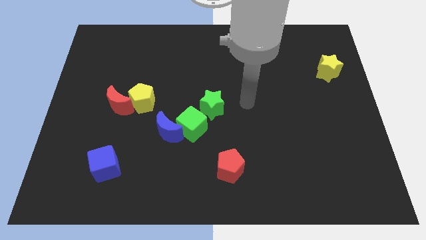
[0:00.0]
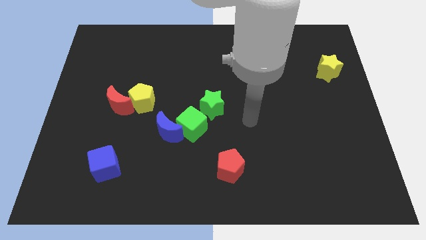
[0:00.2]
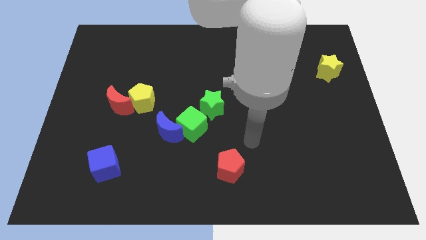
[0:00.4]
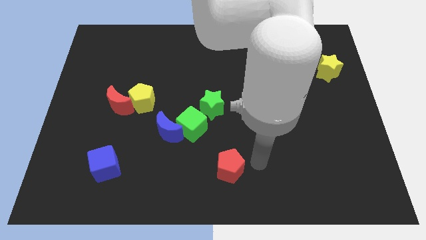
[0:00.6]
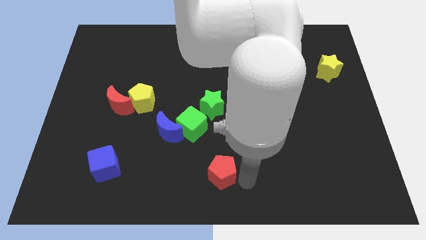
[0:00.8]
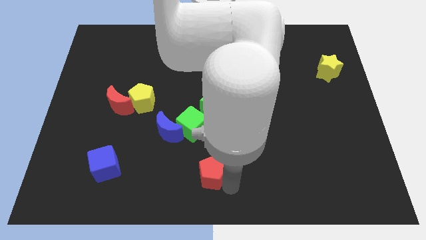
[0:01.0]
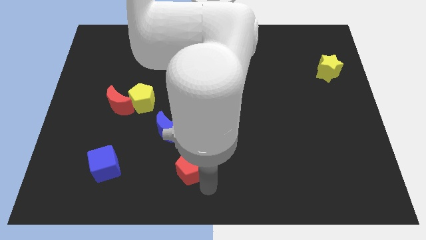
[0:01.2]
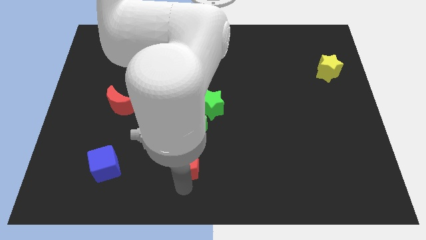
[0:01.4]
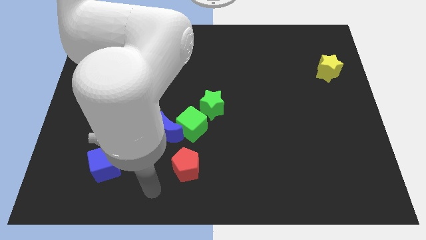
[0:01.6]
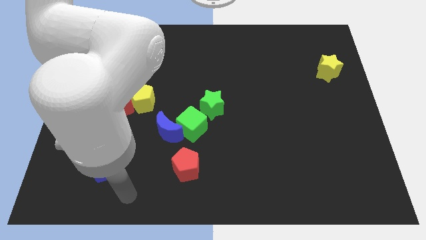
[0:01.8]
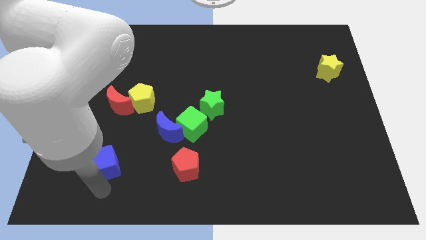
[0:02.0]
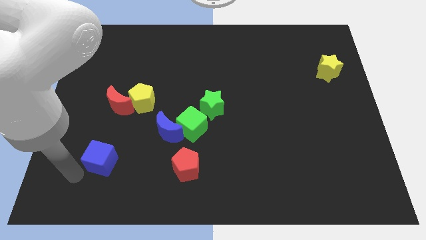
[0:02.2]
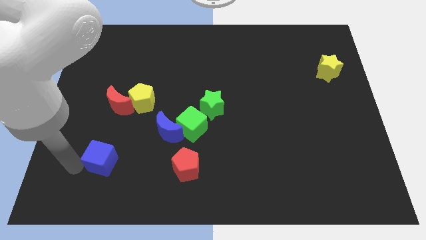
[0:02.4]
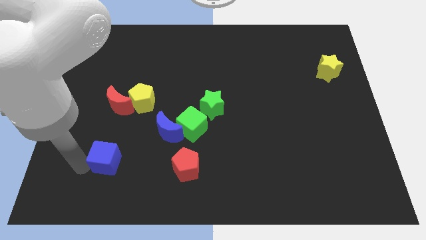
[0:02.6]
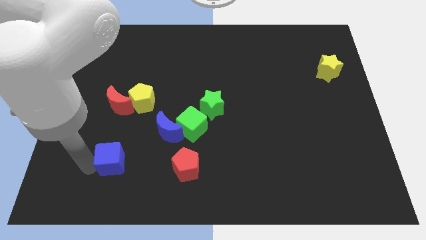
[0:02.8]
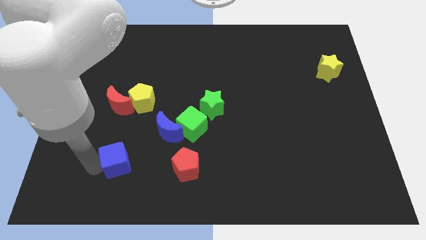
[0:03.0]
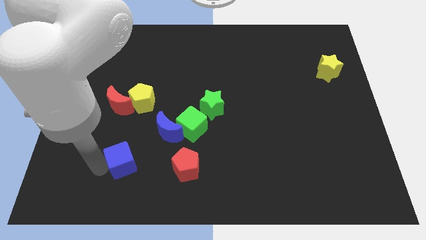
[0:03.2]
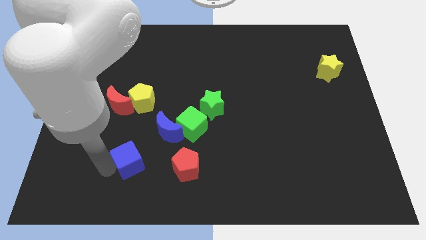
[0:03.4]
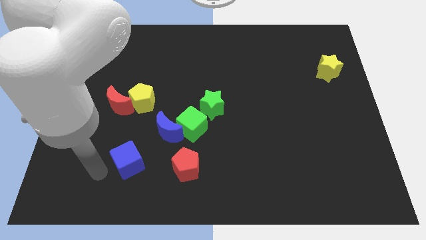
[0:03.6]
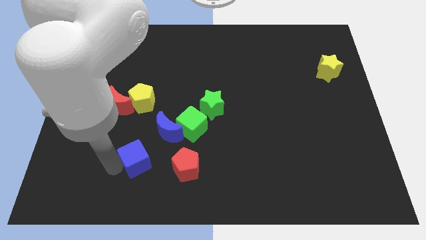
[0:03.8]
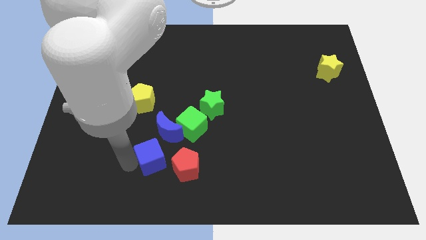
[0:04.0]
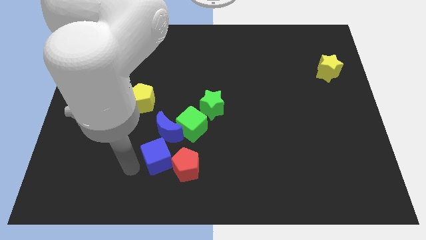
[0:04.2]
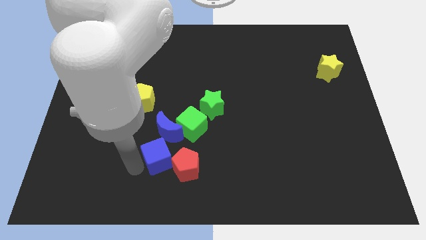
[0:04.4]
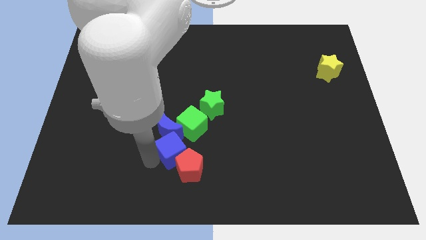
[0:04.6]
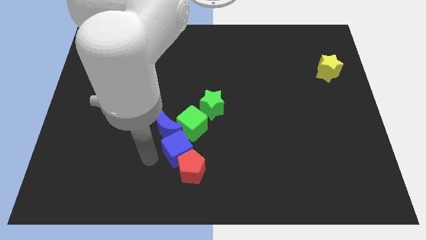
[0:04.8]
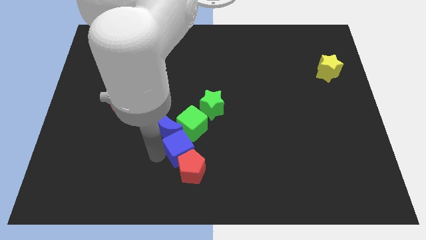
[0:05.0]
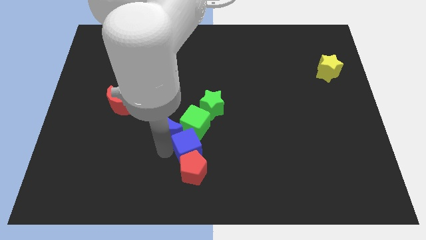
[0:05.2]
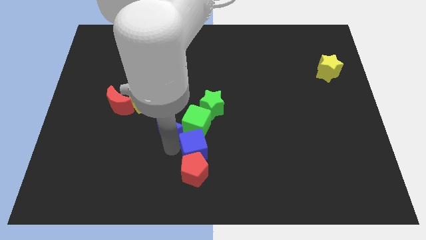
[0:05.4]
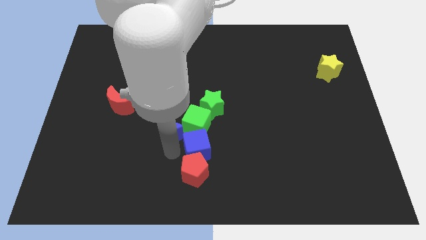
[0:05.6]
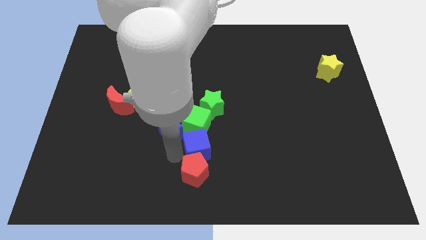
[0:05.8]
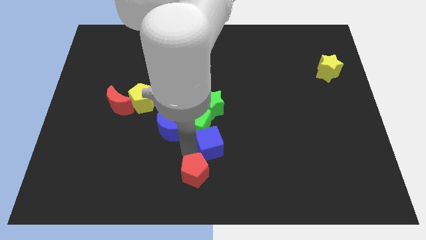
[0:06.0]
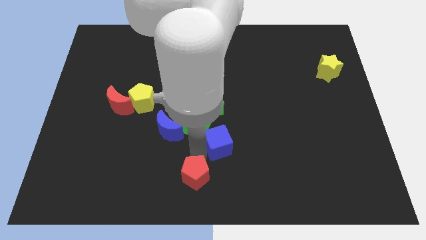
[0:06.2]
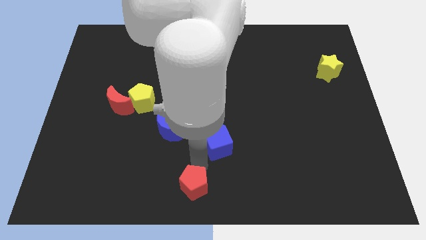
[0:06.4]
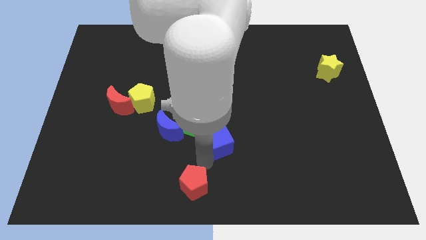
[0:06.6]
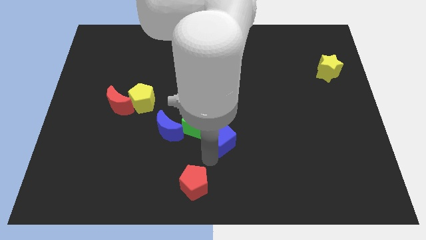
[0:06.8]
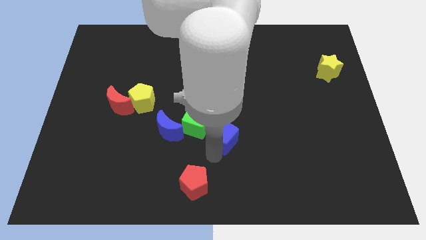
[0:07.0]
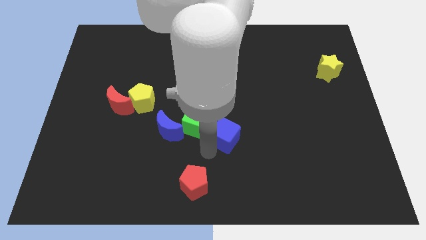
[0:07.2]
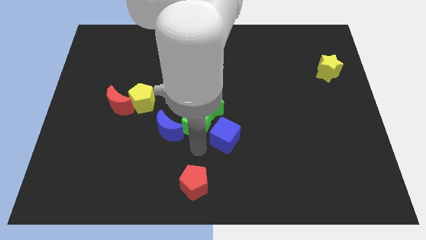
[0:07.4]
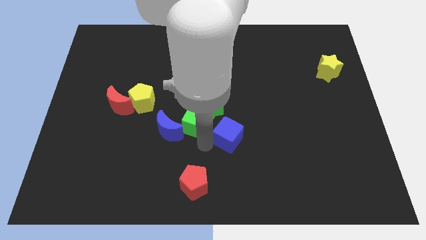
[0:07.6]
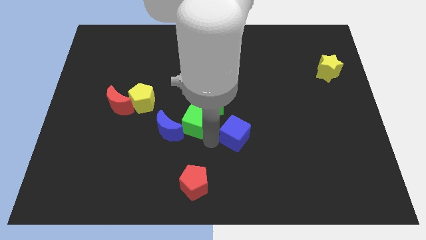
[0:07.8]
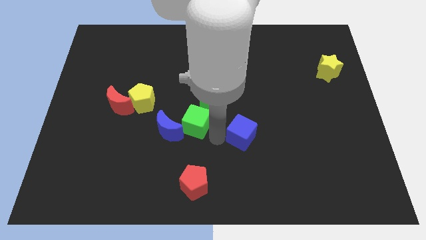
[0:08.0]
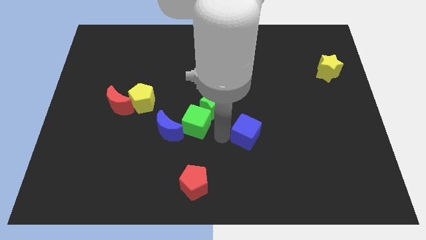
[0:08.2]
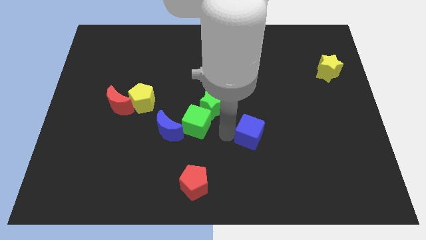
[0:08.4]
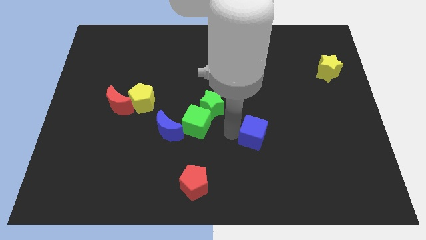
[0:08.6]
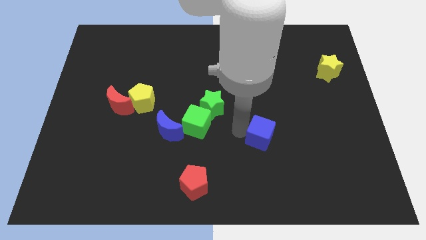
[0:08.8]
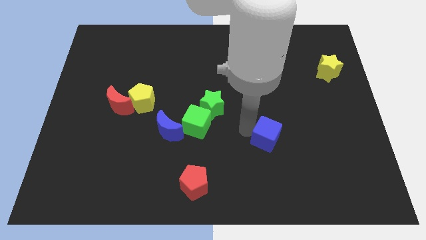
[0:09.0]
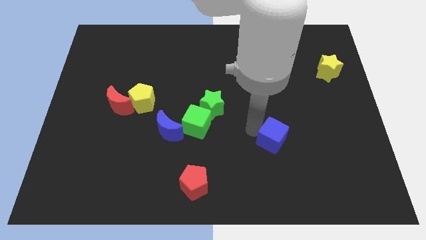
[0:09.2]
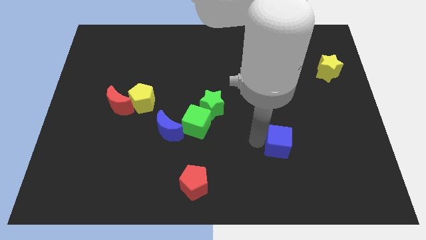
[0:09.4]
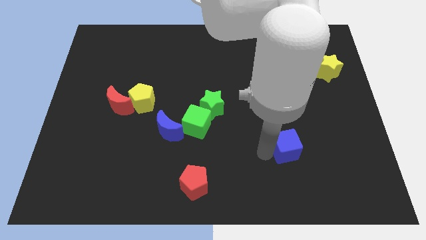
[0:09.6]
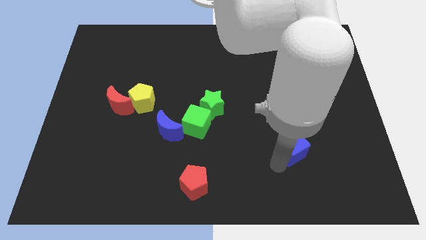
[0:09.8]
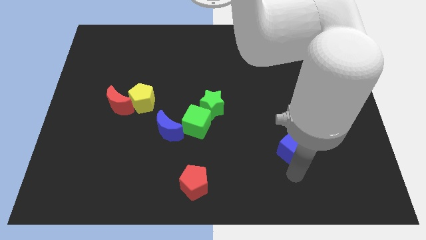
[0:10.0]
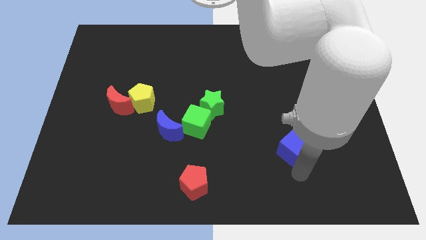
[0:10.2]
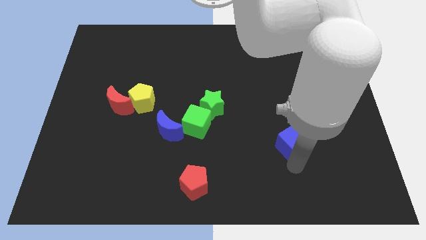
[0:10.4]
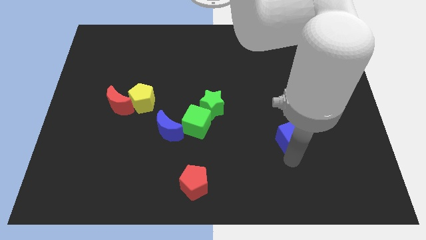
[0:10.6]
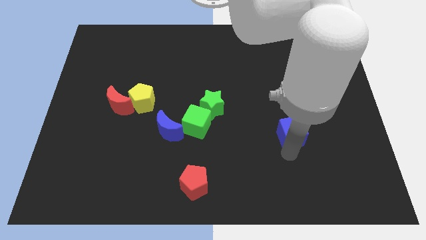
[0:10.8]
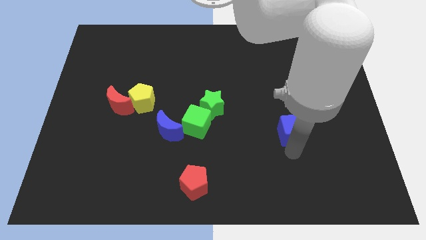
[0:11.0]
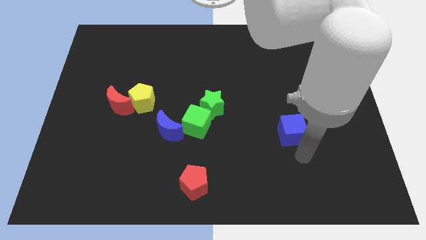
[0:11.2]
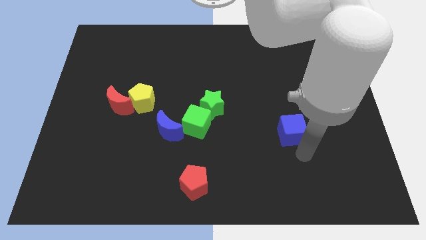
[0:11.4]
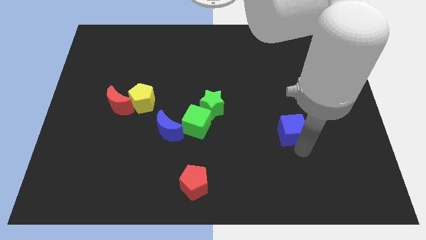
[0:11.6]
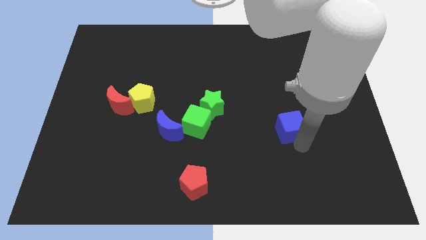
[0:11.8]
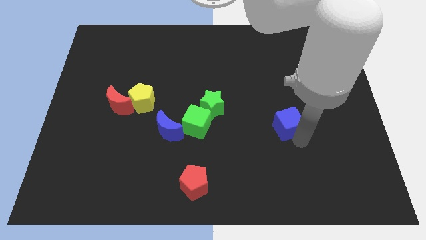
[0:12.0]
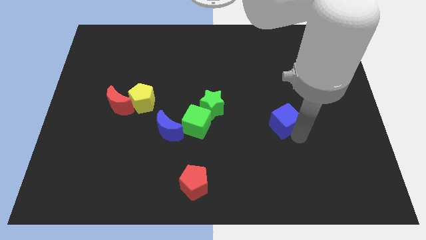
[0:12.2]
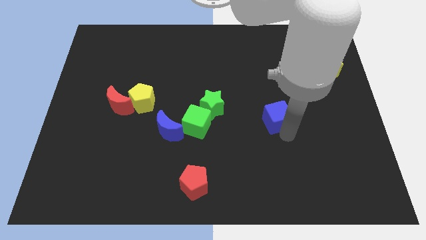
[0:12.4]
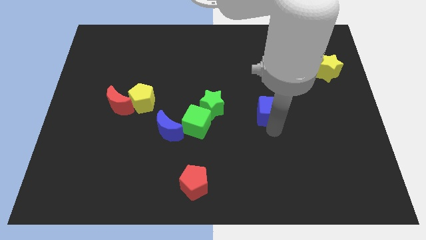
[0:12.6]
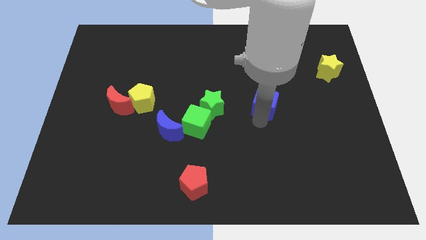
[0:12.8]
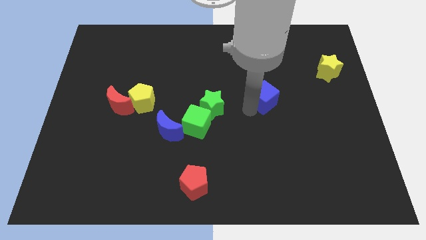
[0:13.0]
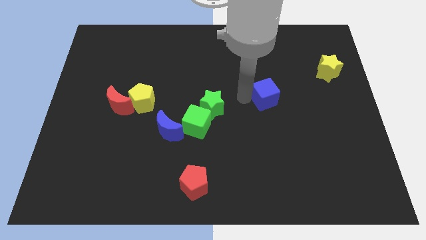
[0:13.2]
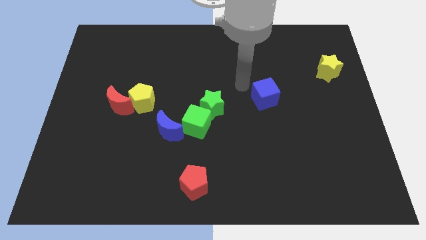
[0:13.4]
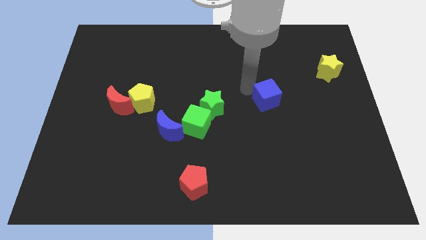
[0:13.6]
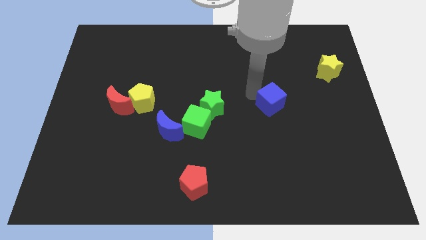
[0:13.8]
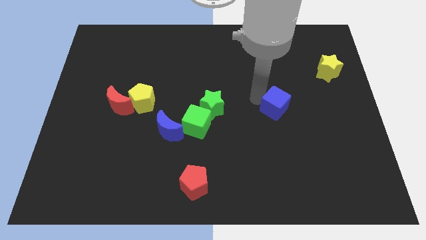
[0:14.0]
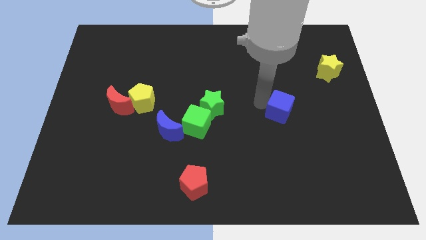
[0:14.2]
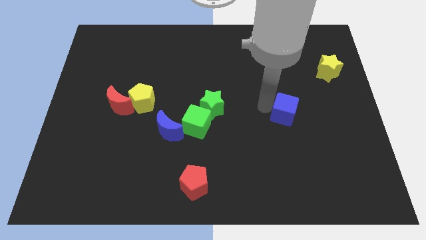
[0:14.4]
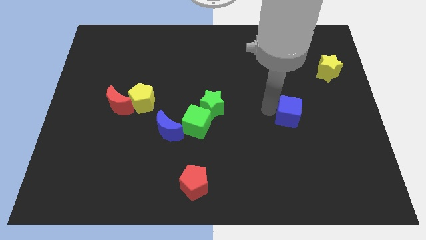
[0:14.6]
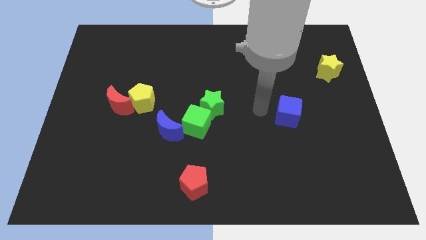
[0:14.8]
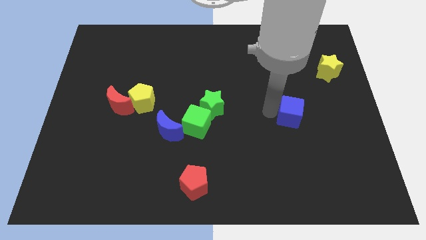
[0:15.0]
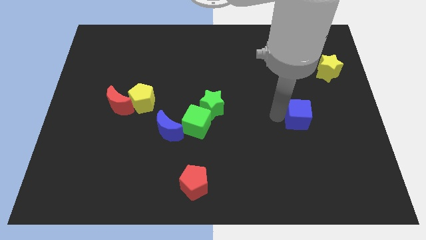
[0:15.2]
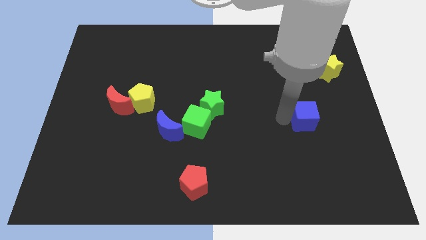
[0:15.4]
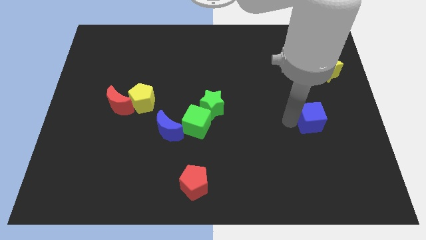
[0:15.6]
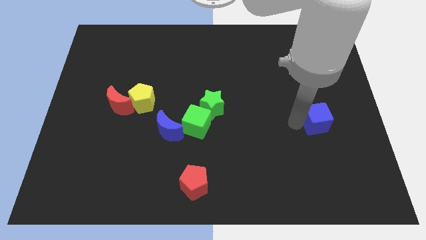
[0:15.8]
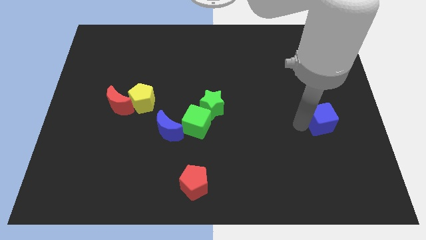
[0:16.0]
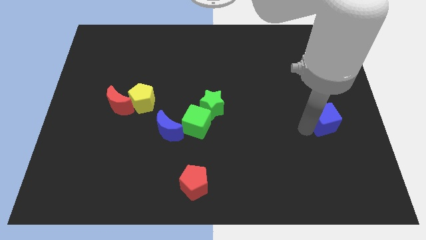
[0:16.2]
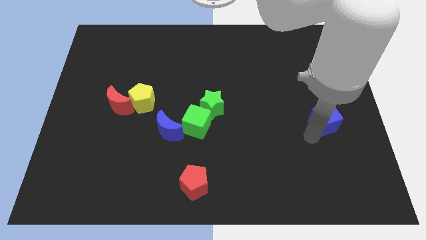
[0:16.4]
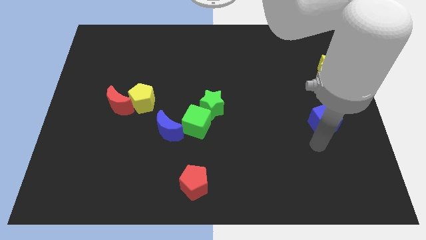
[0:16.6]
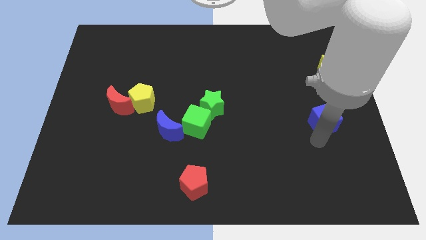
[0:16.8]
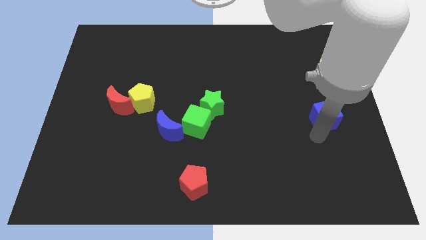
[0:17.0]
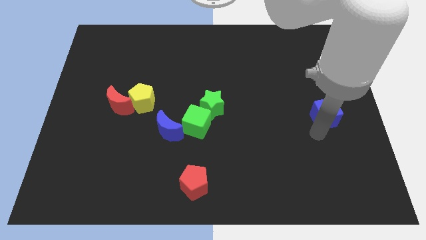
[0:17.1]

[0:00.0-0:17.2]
put the blue cube to the right side of the board
